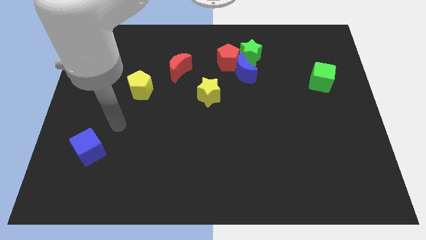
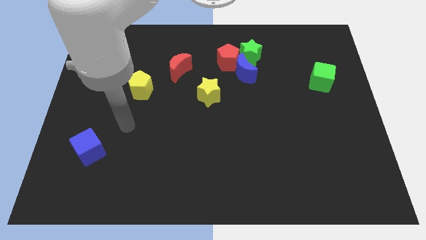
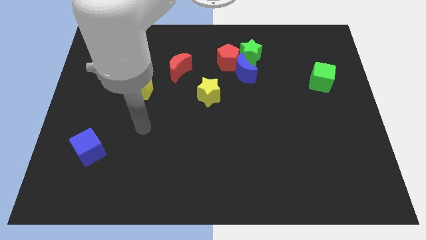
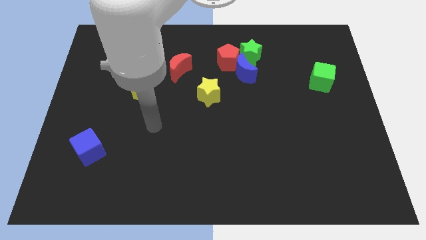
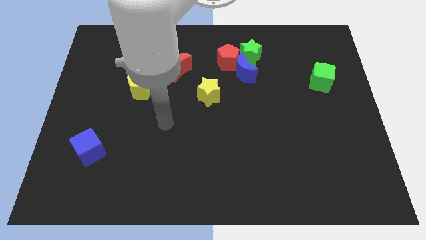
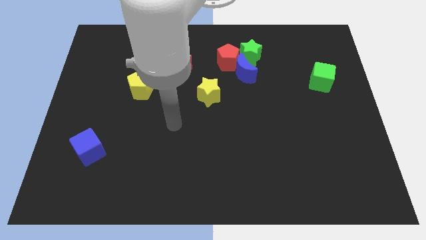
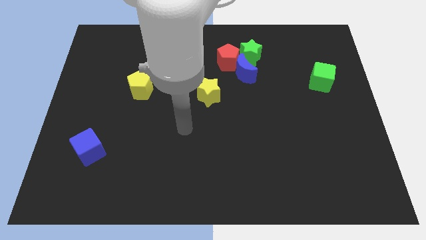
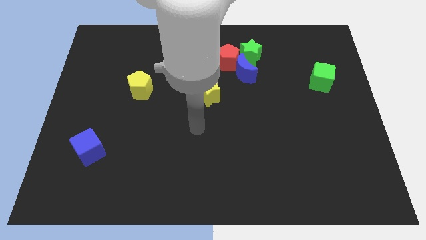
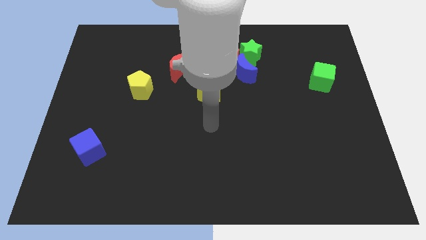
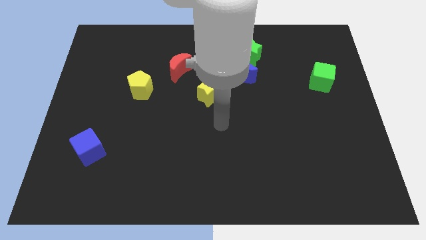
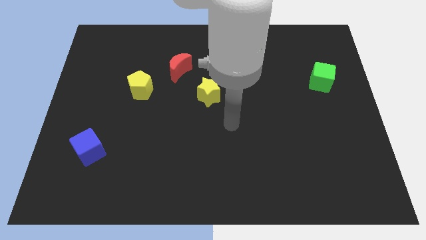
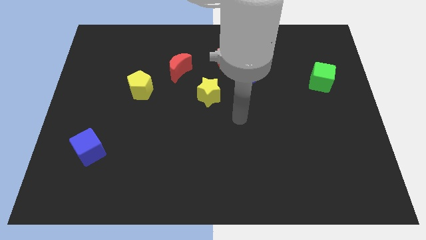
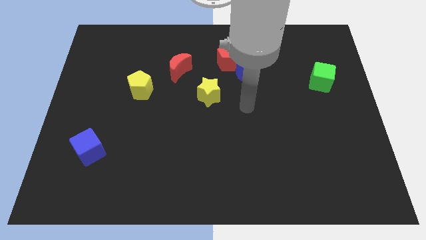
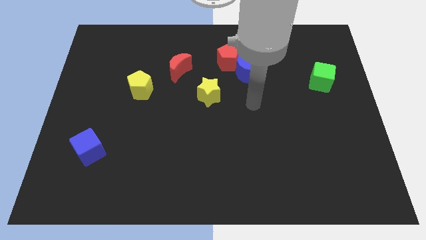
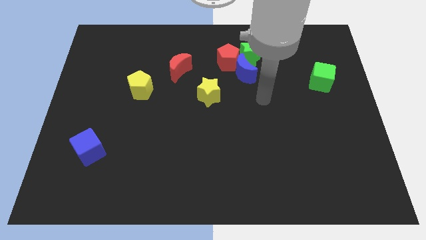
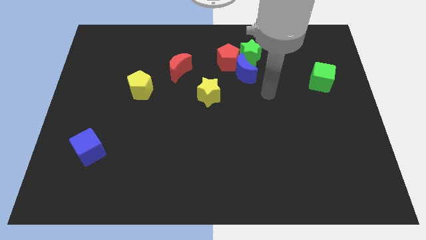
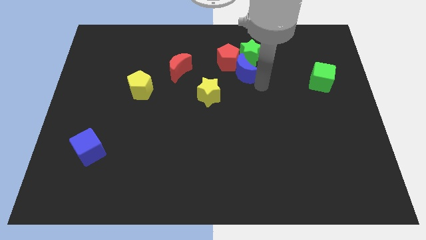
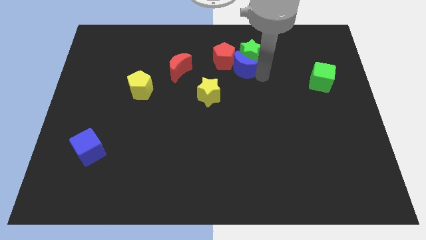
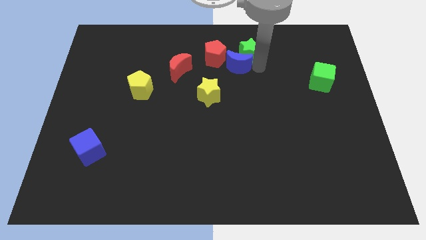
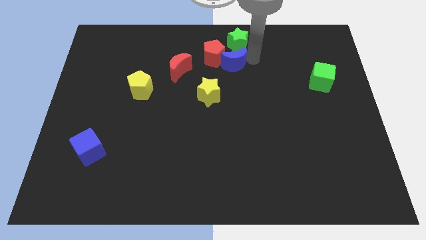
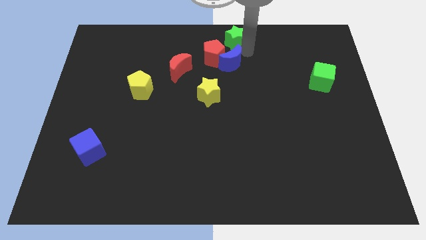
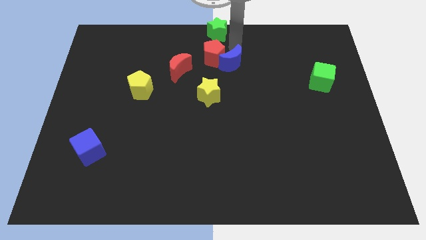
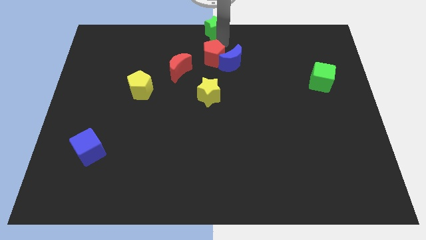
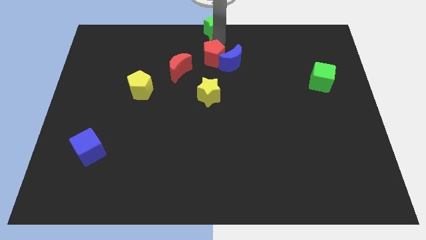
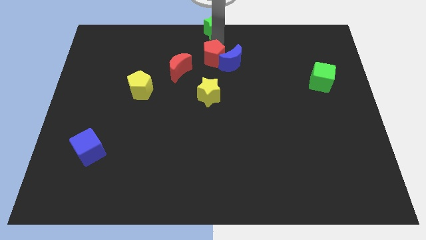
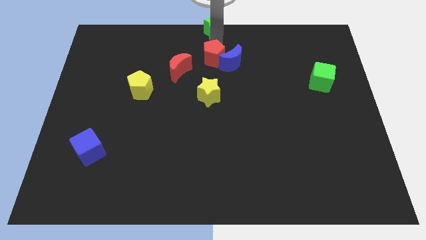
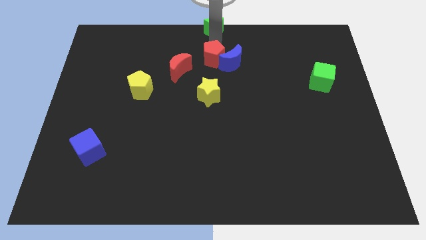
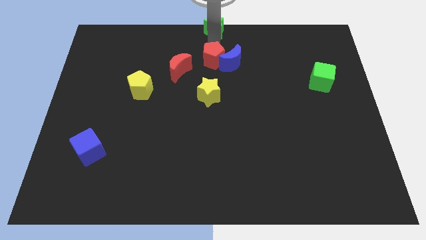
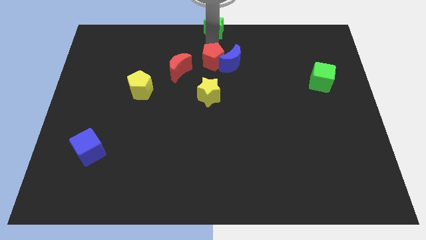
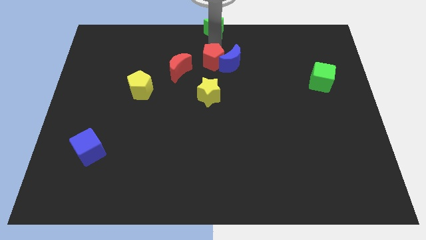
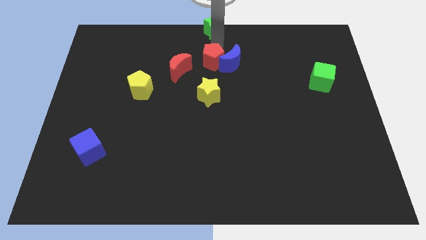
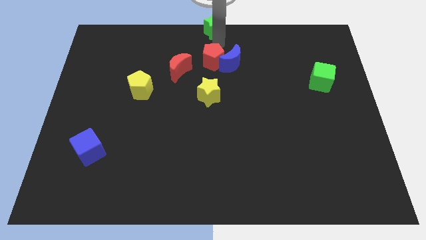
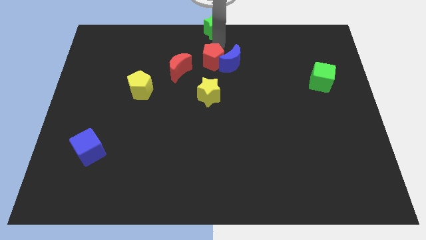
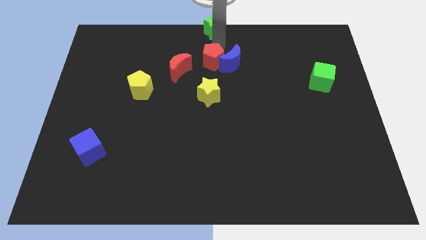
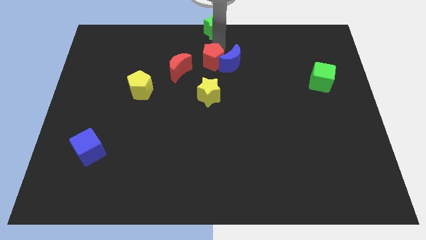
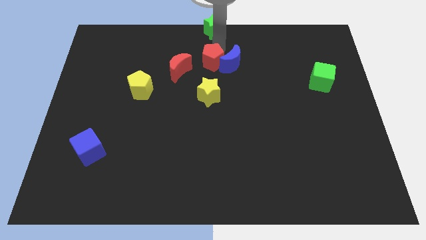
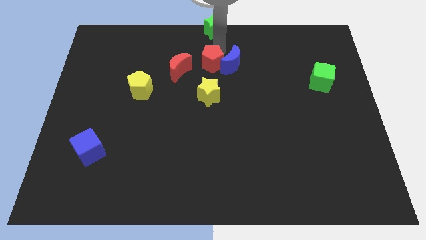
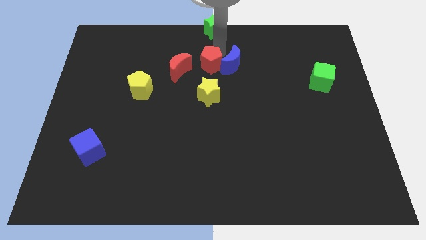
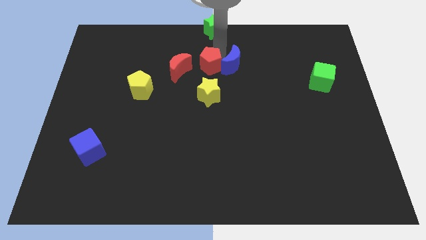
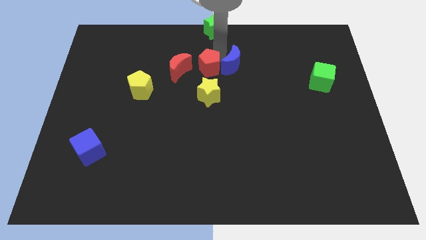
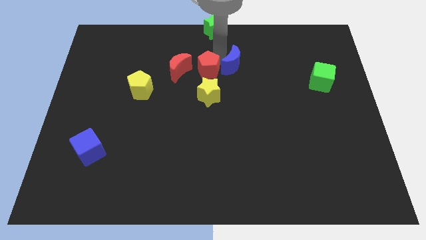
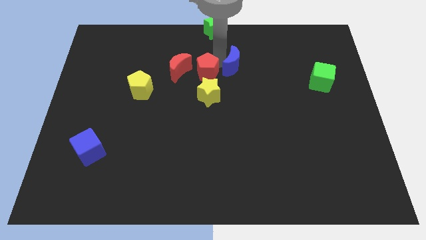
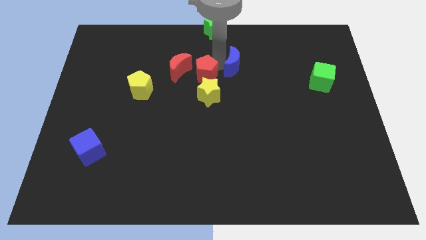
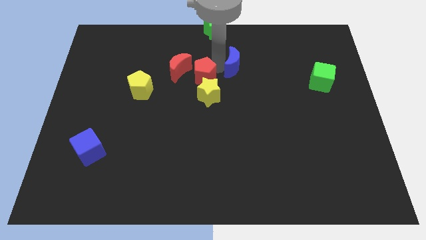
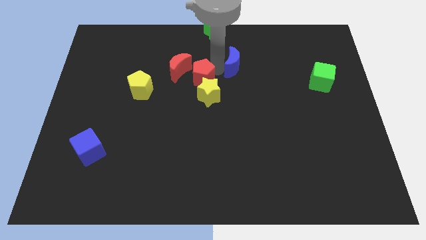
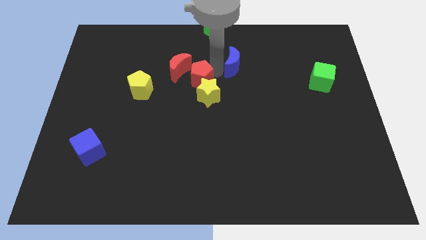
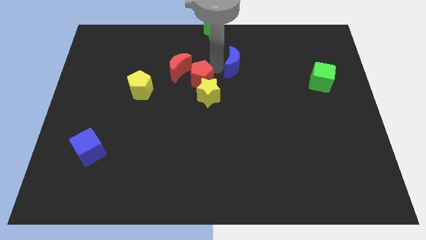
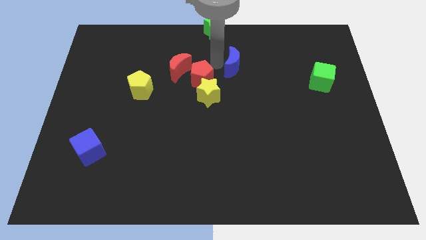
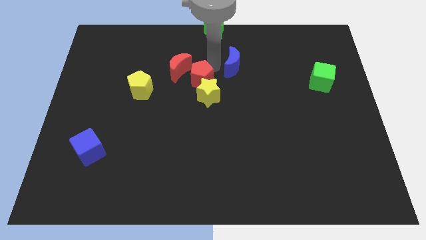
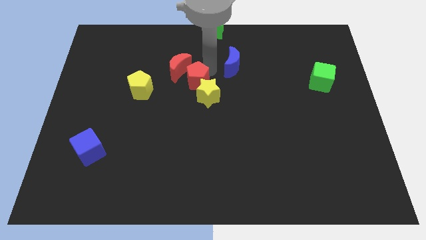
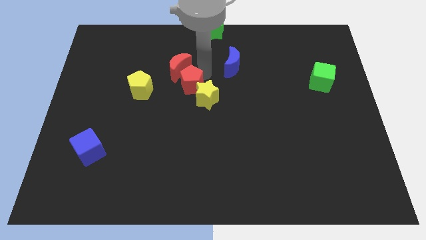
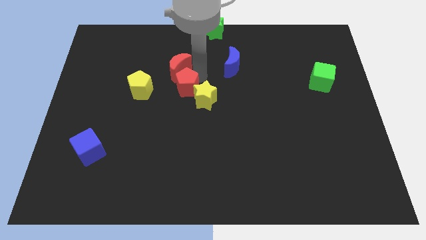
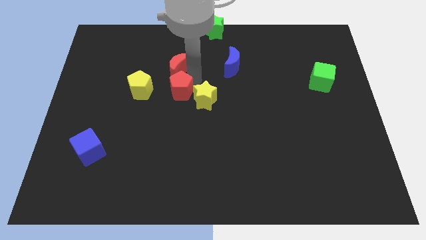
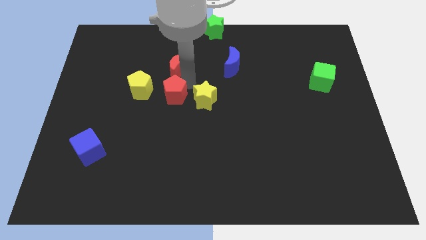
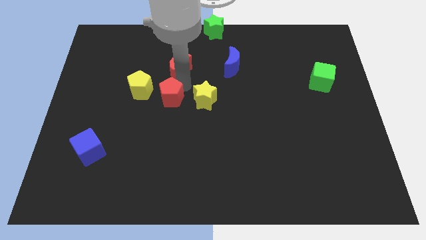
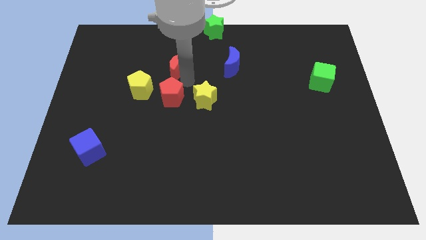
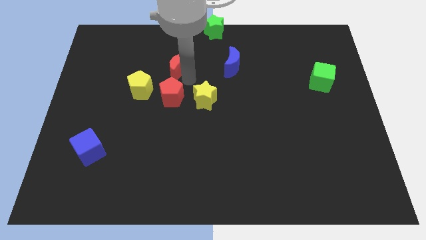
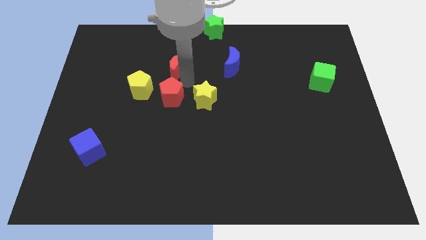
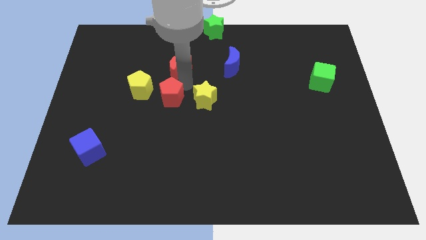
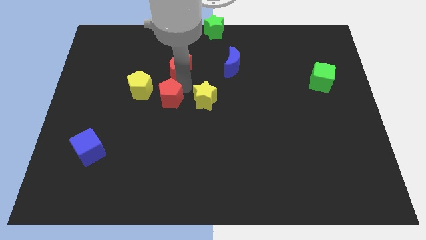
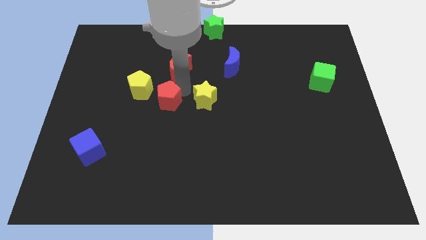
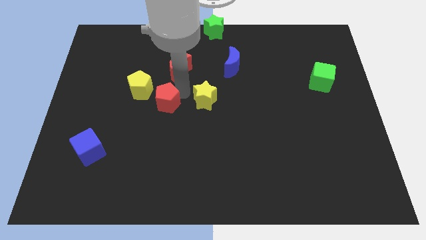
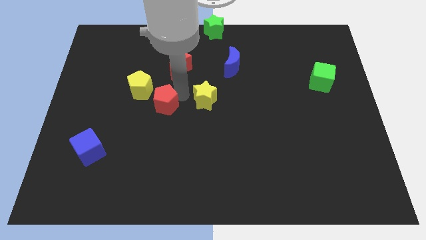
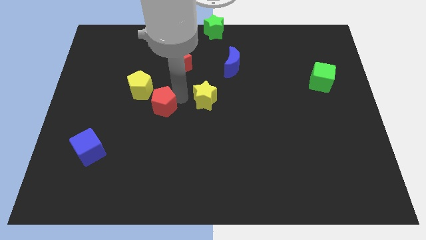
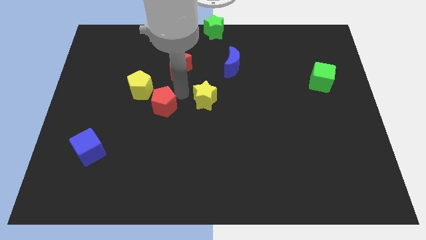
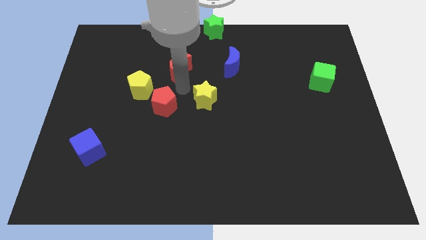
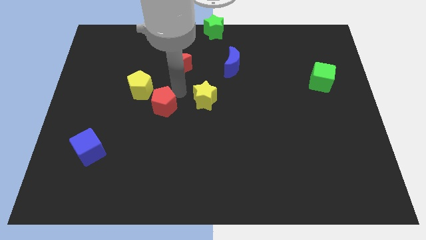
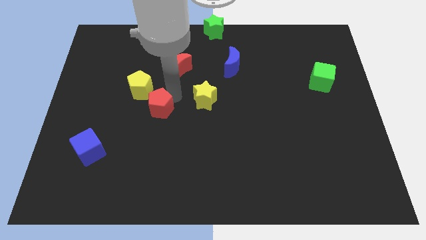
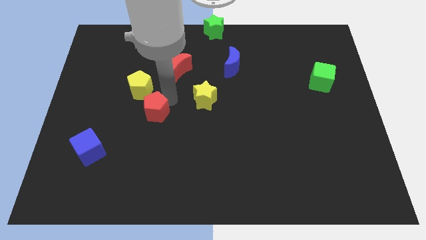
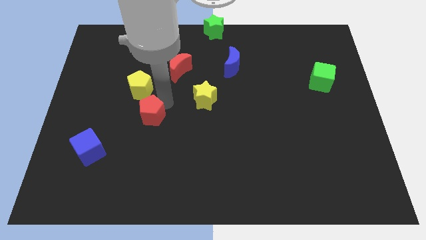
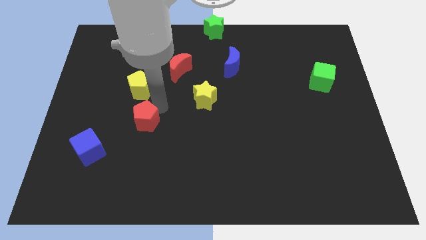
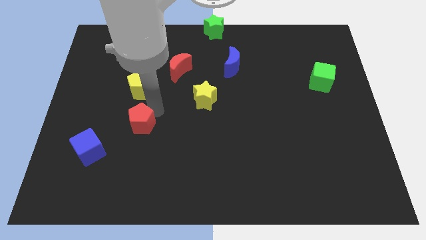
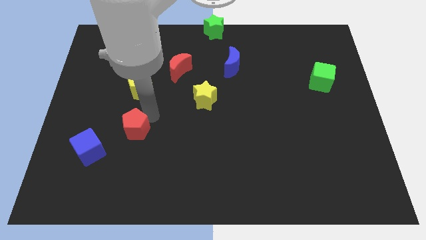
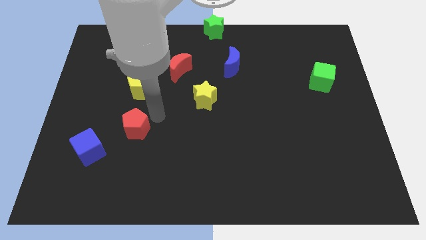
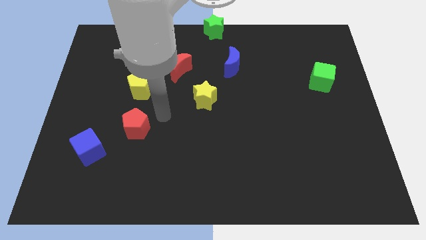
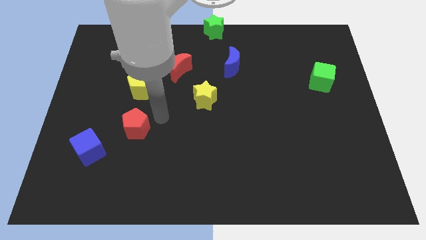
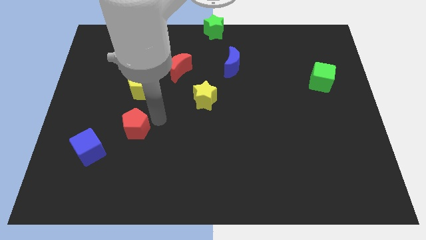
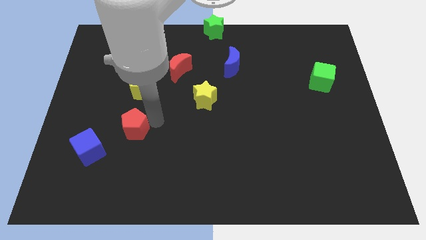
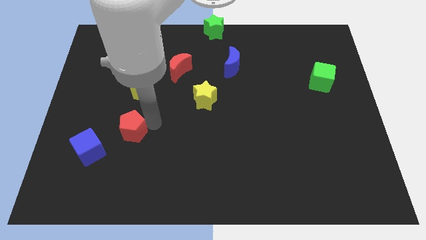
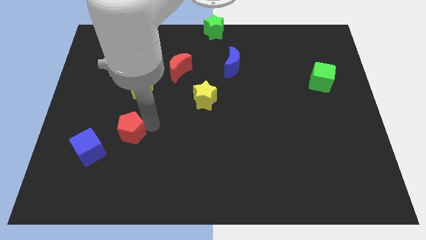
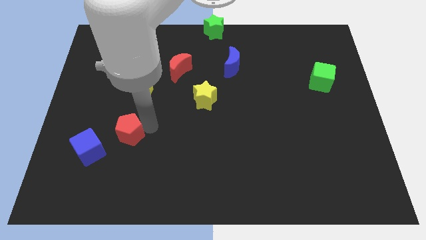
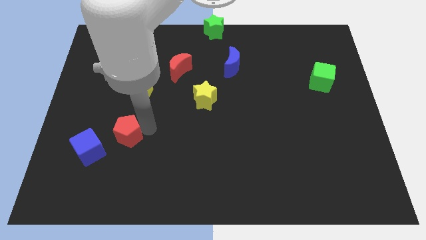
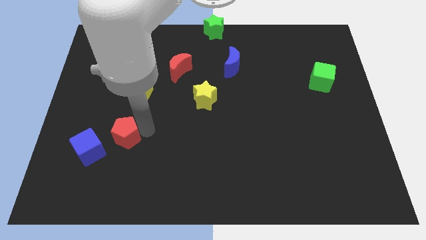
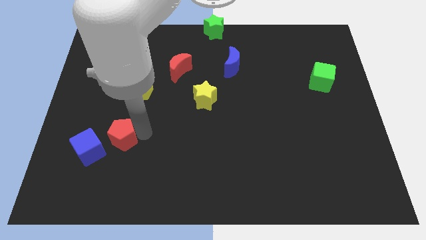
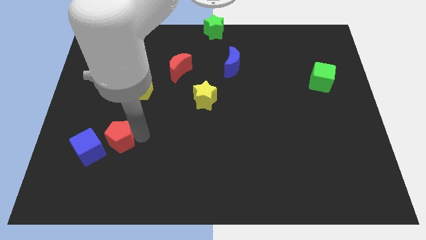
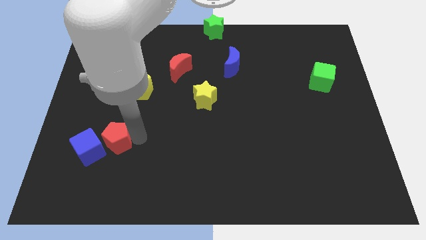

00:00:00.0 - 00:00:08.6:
push the red pentagon close to the blue cube
